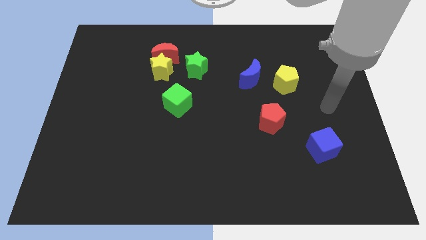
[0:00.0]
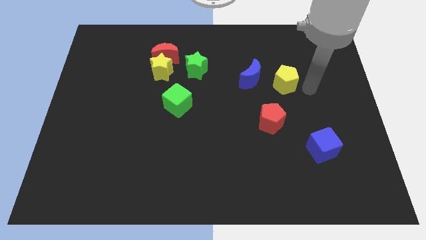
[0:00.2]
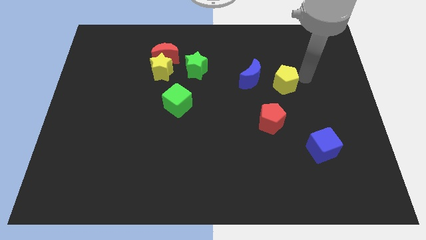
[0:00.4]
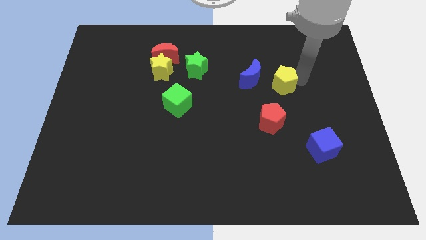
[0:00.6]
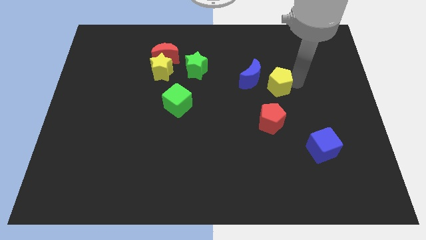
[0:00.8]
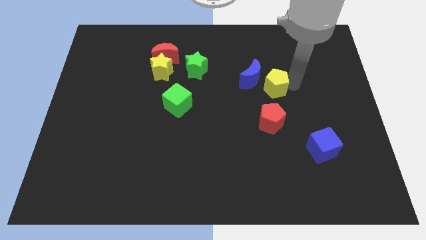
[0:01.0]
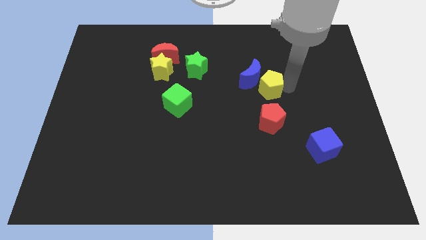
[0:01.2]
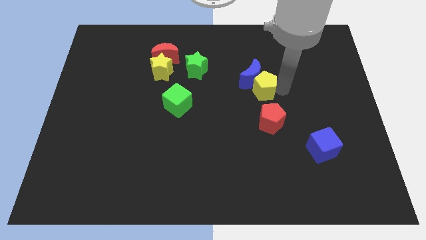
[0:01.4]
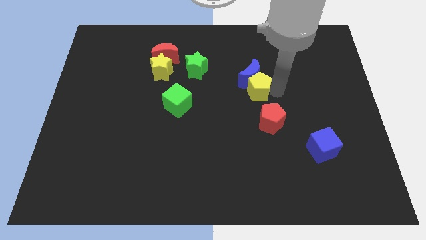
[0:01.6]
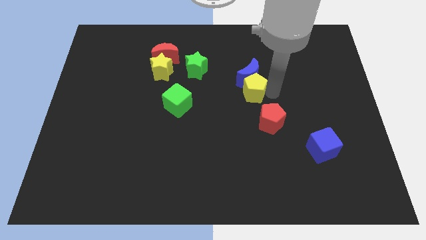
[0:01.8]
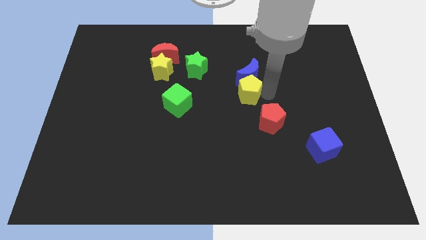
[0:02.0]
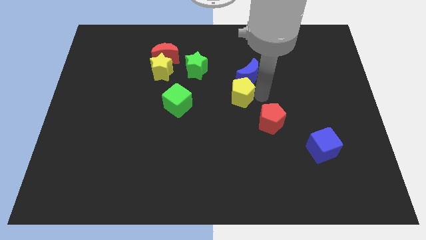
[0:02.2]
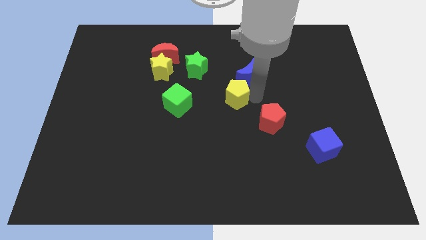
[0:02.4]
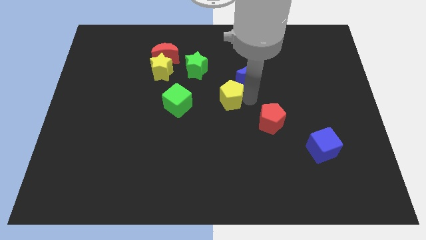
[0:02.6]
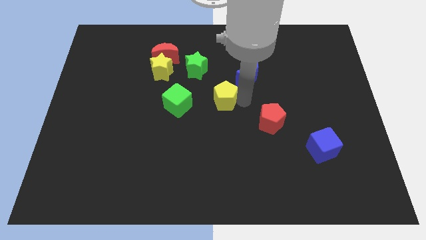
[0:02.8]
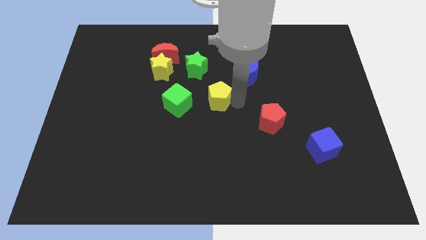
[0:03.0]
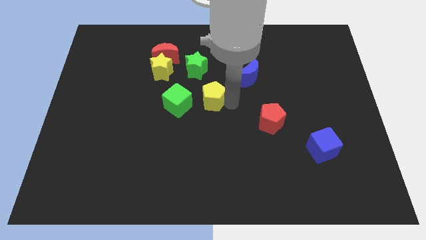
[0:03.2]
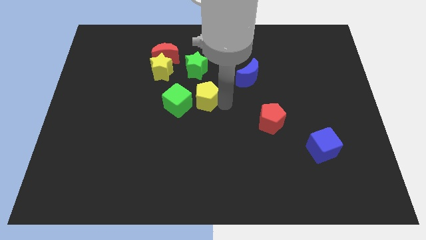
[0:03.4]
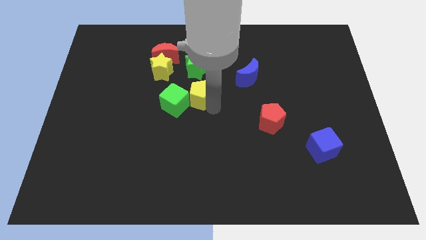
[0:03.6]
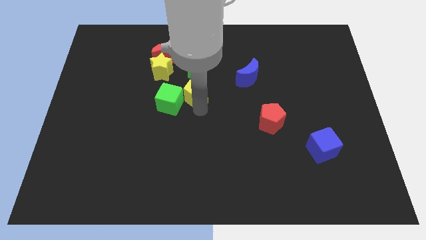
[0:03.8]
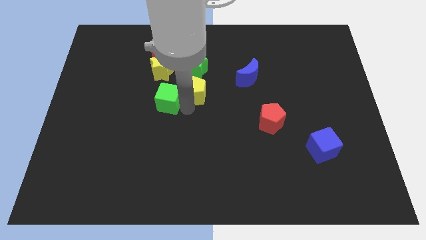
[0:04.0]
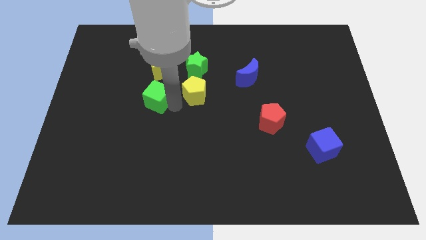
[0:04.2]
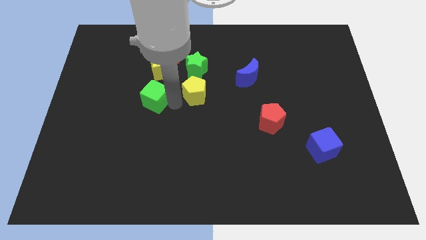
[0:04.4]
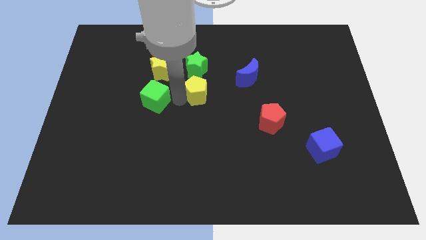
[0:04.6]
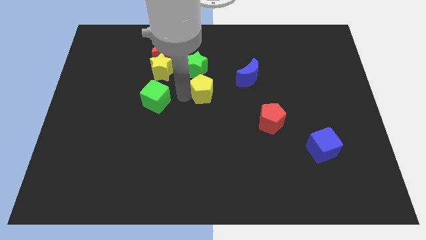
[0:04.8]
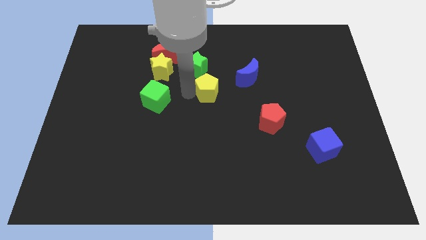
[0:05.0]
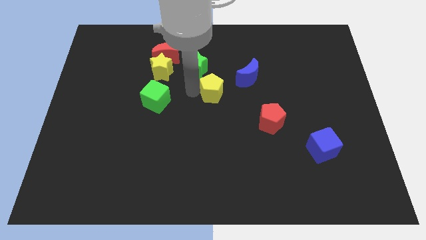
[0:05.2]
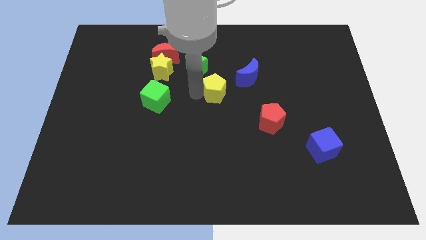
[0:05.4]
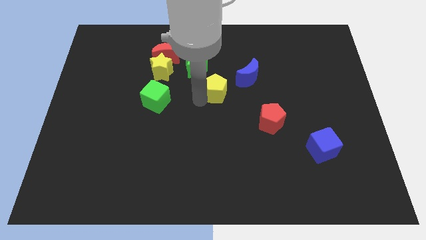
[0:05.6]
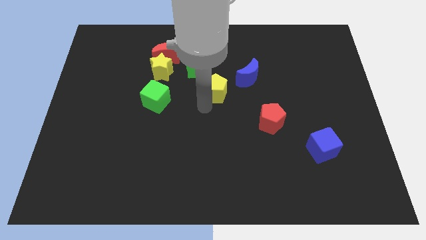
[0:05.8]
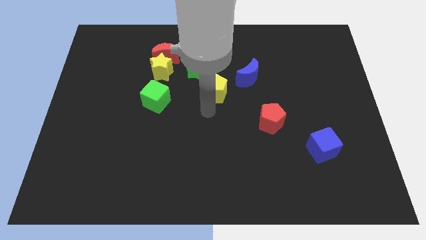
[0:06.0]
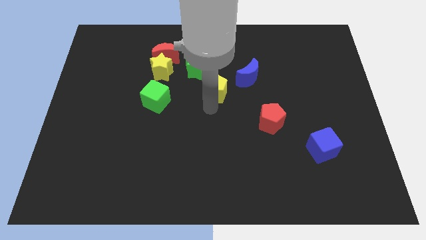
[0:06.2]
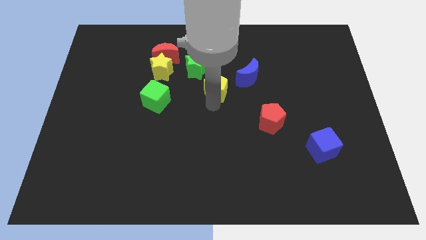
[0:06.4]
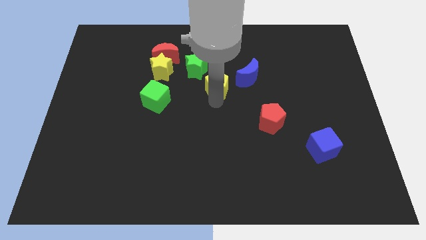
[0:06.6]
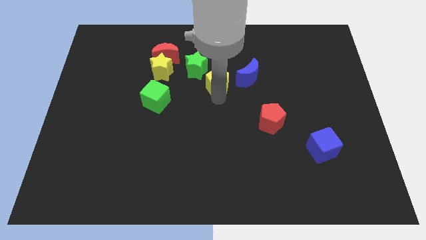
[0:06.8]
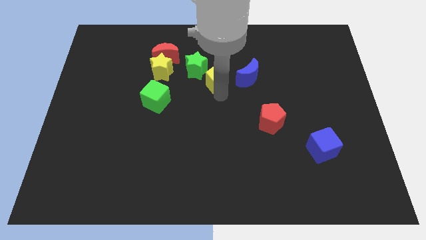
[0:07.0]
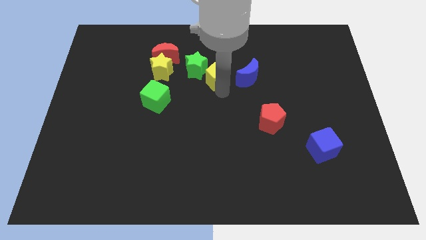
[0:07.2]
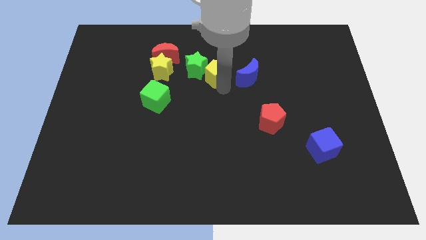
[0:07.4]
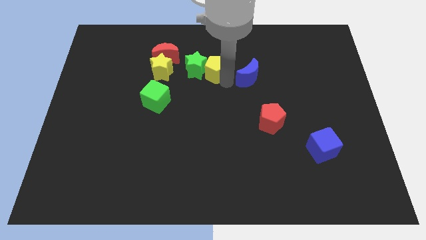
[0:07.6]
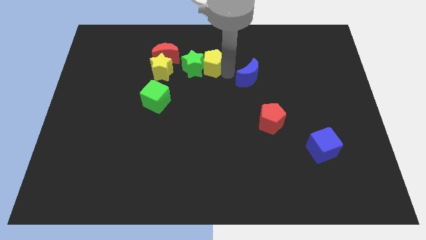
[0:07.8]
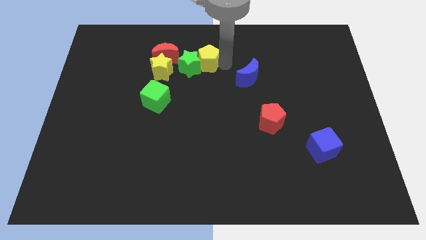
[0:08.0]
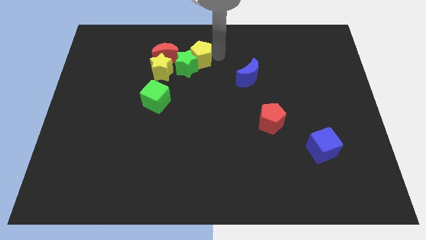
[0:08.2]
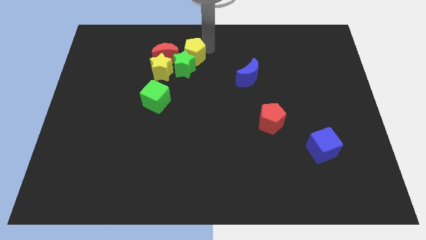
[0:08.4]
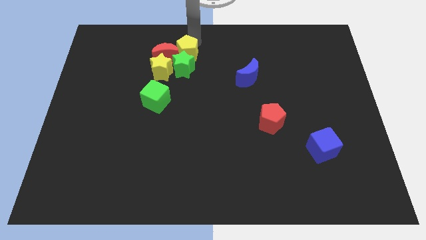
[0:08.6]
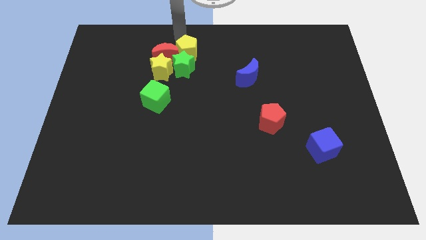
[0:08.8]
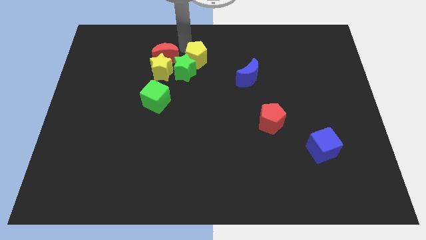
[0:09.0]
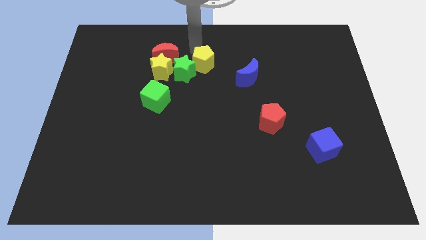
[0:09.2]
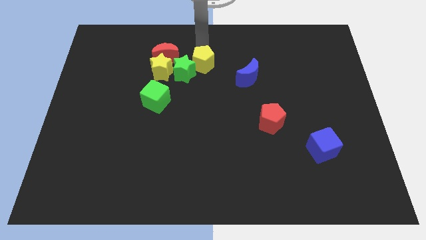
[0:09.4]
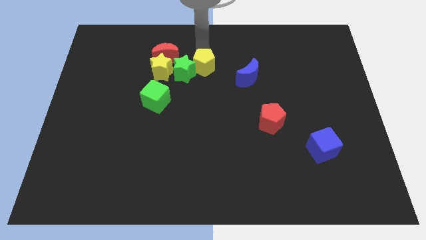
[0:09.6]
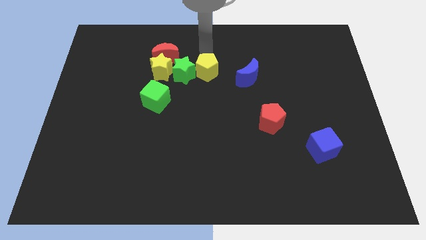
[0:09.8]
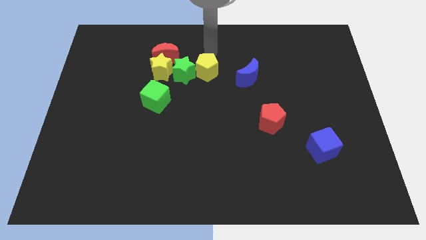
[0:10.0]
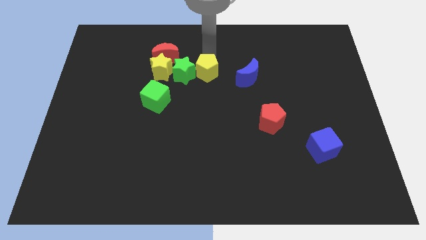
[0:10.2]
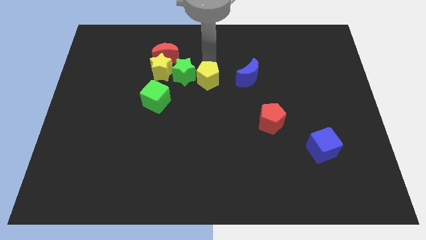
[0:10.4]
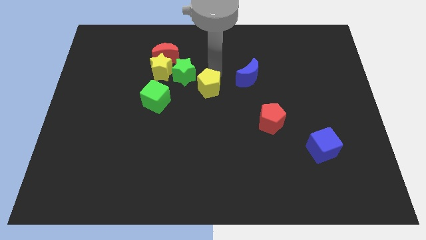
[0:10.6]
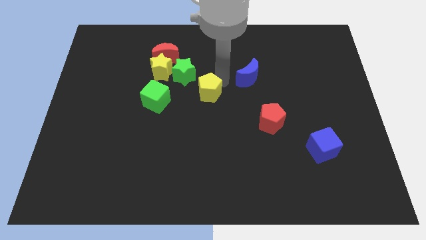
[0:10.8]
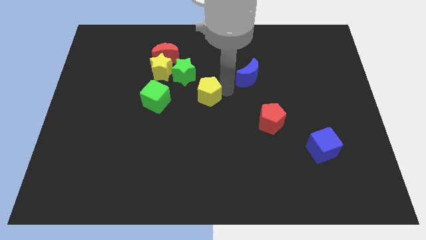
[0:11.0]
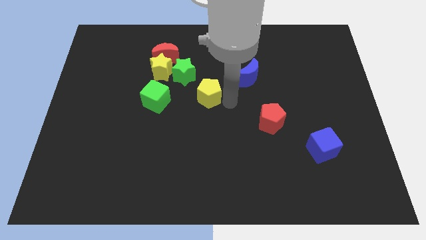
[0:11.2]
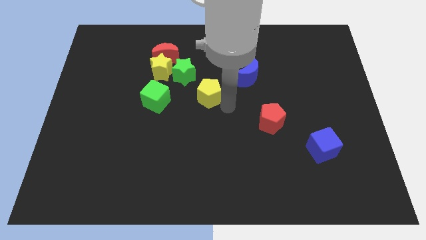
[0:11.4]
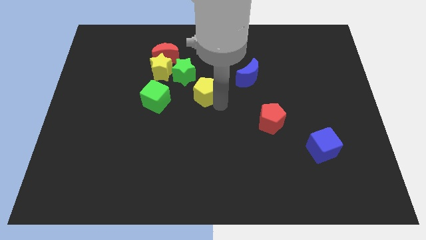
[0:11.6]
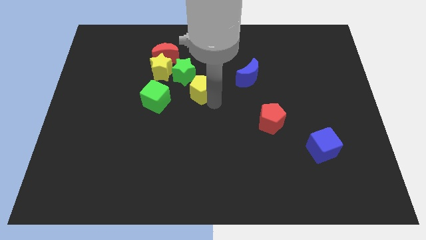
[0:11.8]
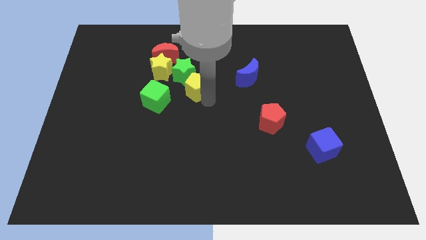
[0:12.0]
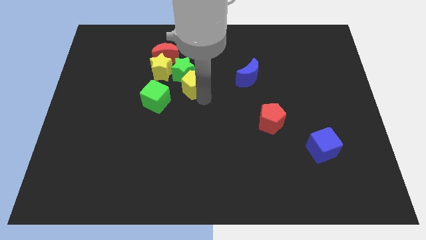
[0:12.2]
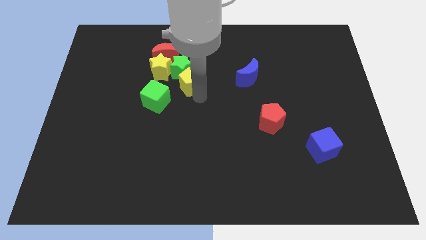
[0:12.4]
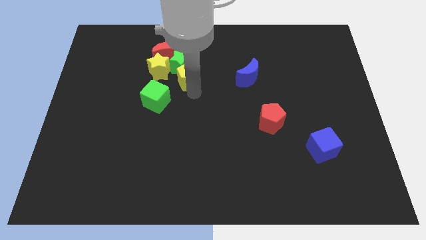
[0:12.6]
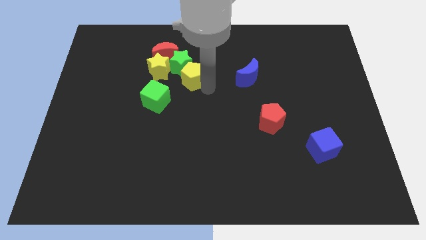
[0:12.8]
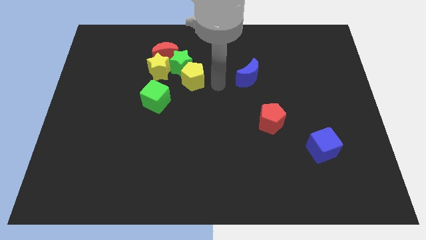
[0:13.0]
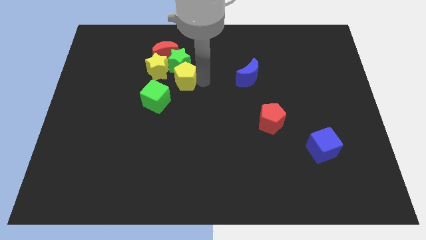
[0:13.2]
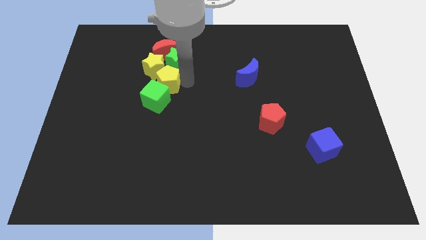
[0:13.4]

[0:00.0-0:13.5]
put the yellow pentagon towards the yellow star
